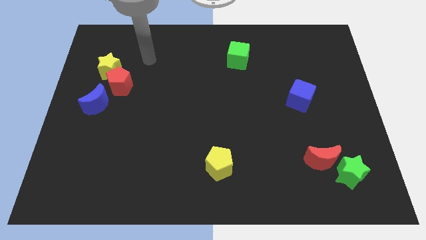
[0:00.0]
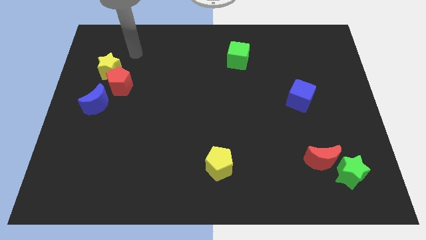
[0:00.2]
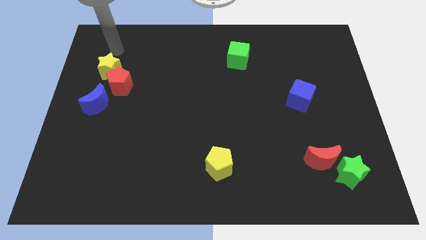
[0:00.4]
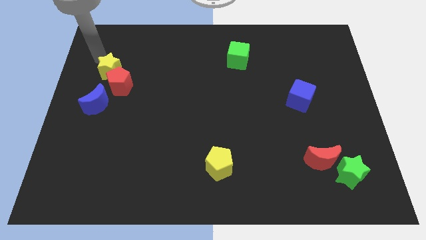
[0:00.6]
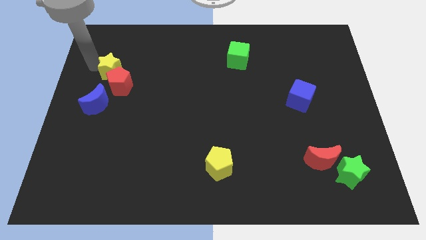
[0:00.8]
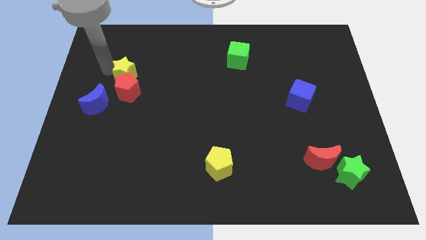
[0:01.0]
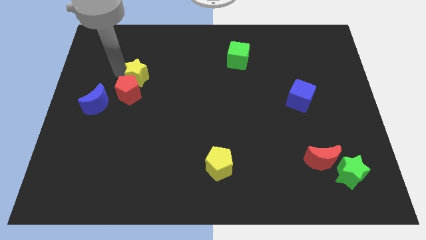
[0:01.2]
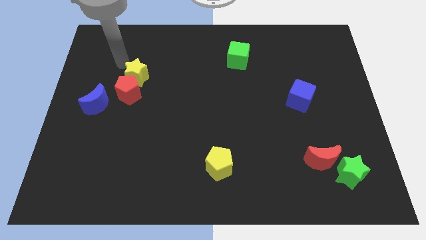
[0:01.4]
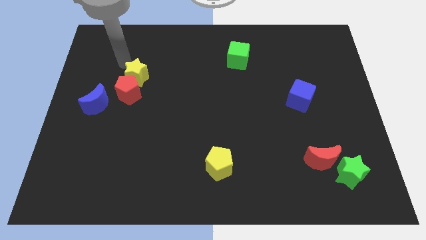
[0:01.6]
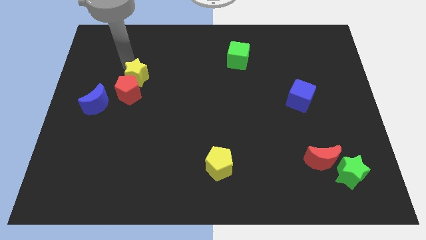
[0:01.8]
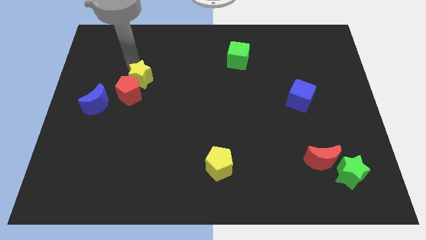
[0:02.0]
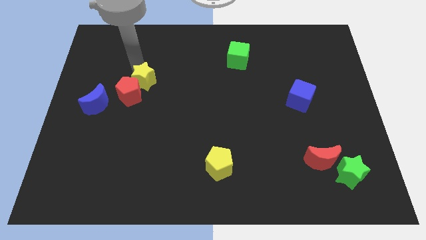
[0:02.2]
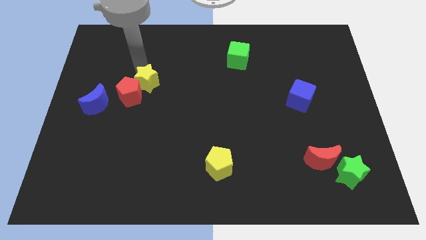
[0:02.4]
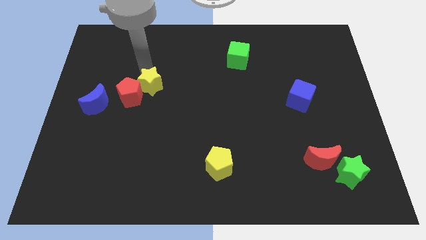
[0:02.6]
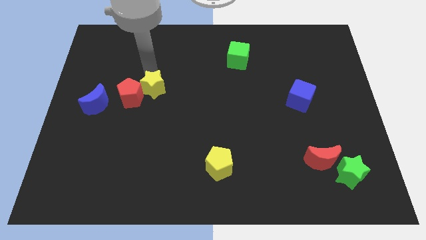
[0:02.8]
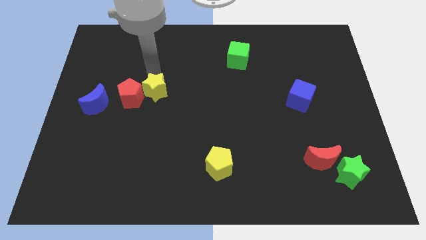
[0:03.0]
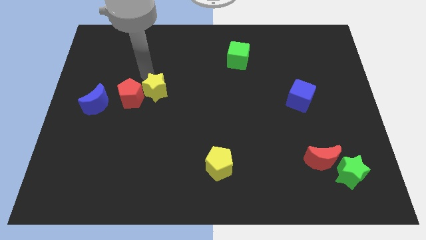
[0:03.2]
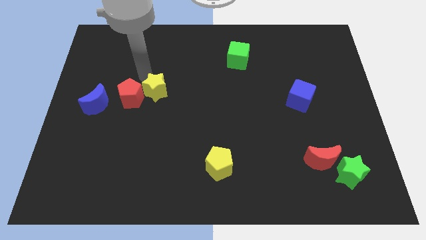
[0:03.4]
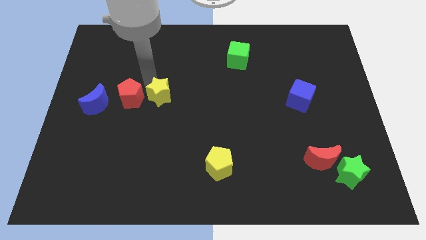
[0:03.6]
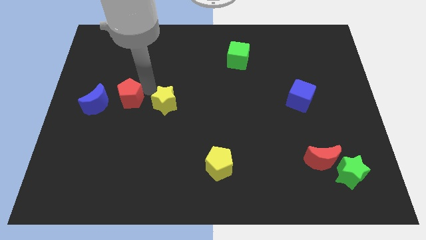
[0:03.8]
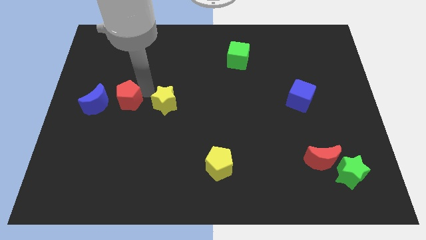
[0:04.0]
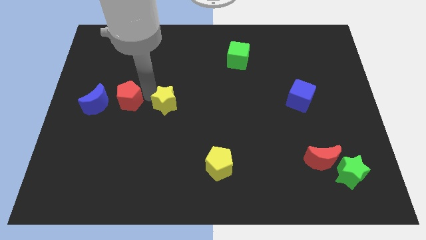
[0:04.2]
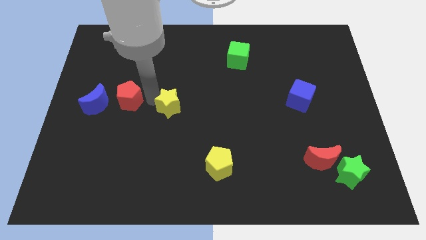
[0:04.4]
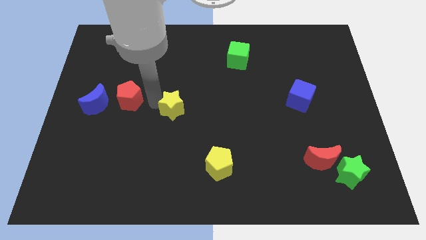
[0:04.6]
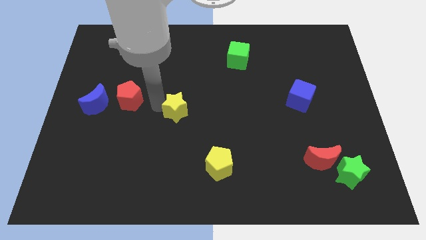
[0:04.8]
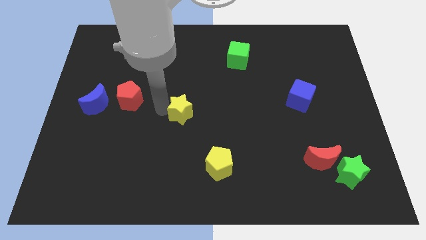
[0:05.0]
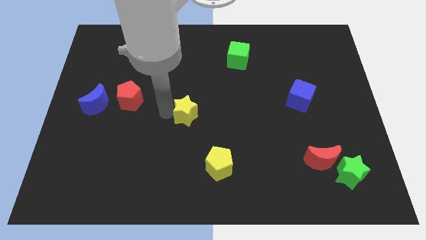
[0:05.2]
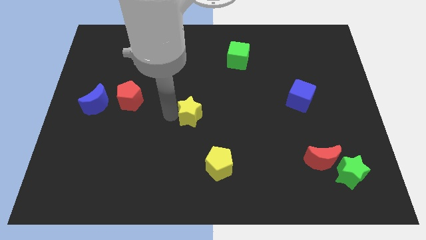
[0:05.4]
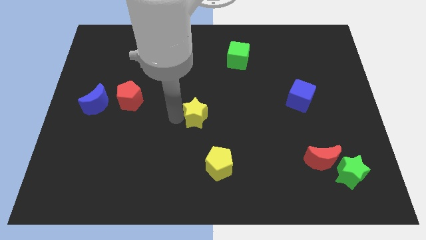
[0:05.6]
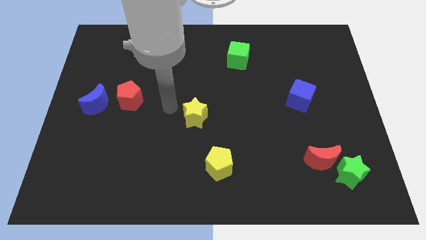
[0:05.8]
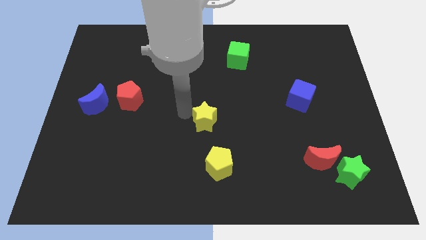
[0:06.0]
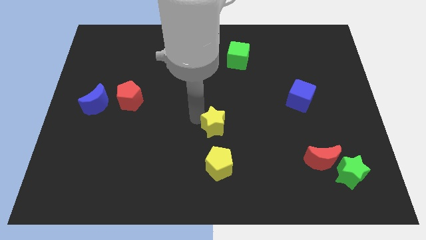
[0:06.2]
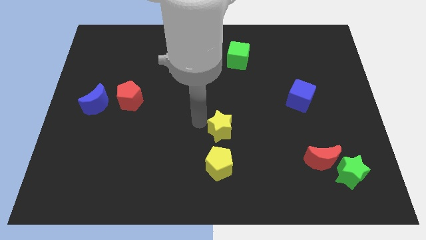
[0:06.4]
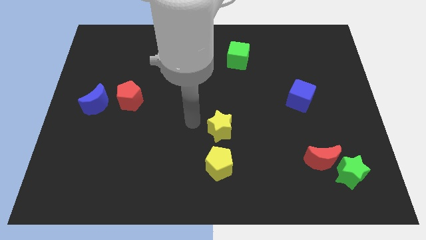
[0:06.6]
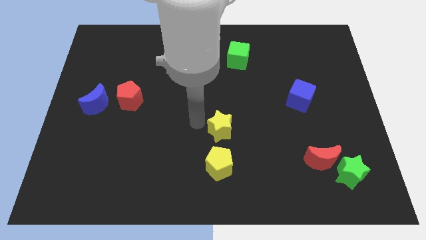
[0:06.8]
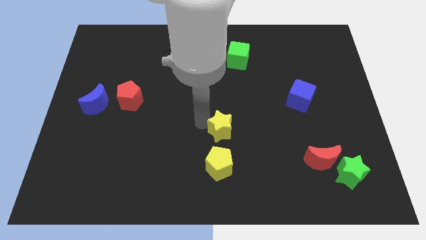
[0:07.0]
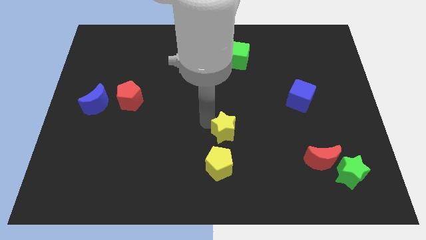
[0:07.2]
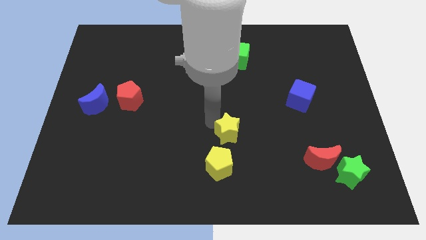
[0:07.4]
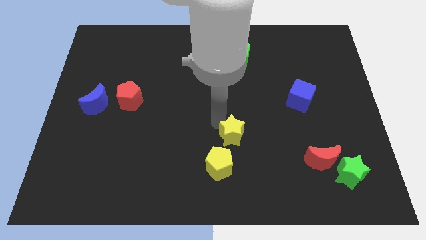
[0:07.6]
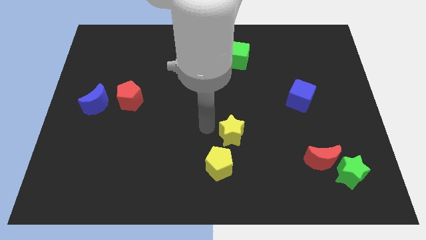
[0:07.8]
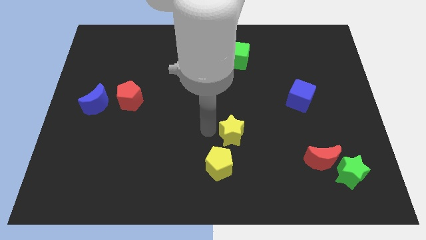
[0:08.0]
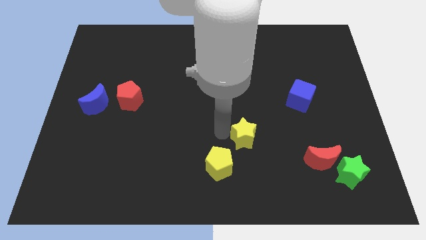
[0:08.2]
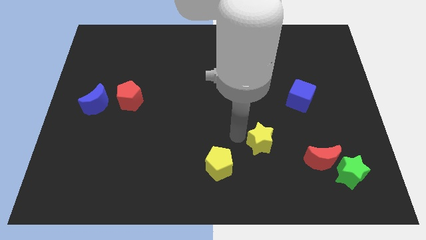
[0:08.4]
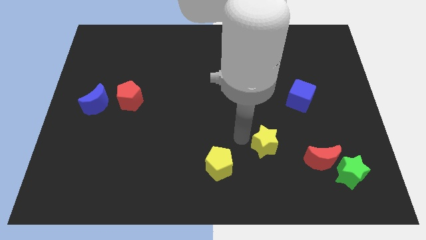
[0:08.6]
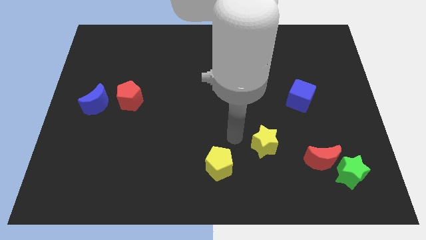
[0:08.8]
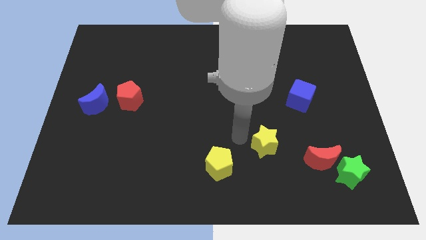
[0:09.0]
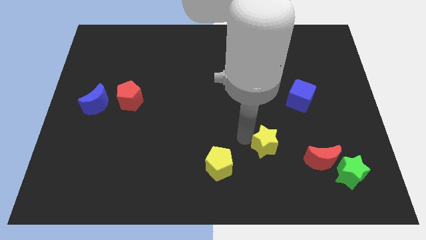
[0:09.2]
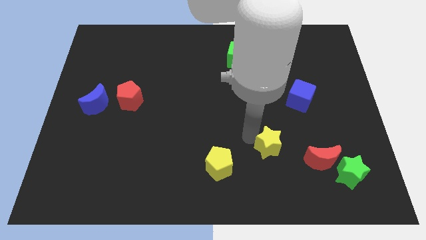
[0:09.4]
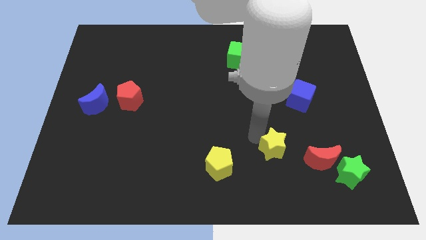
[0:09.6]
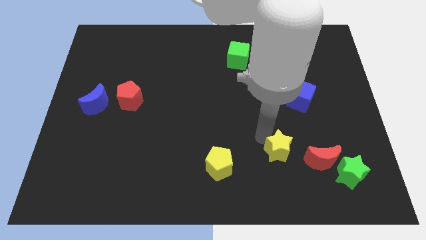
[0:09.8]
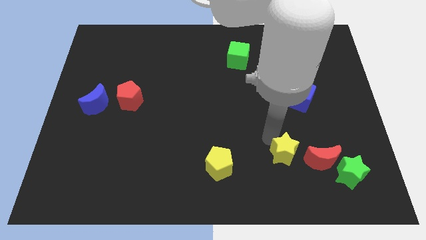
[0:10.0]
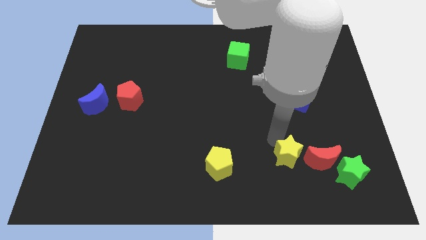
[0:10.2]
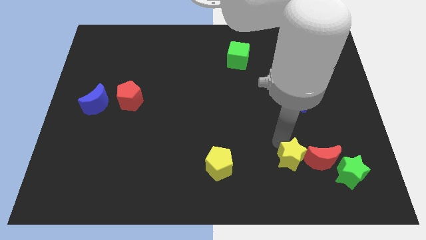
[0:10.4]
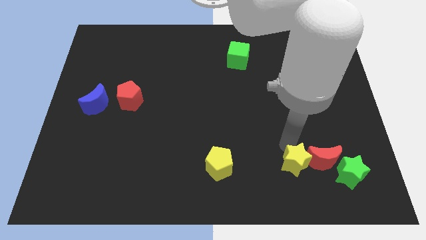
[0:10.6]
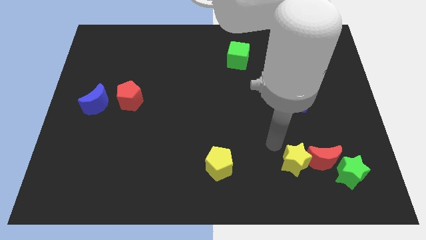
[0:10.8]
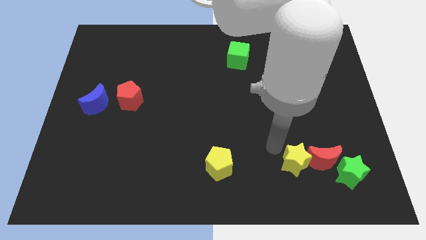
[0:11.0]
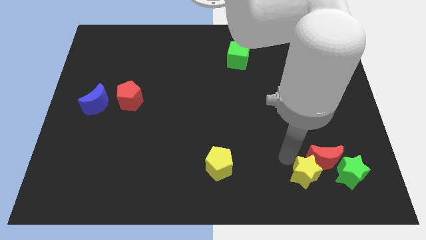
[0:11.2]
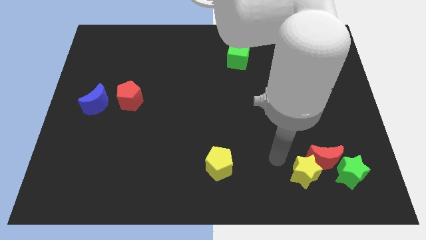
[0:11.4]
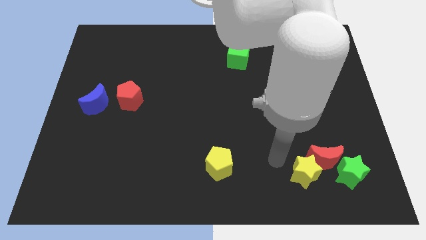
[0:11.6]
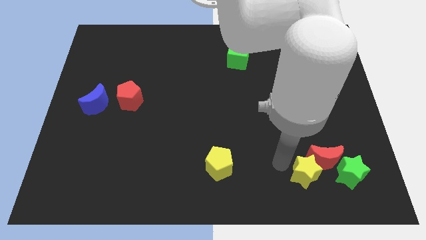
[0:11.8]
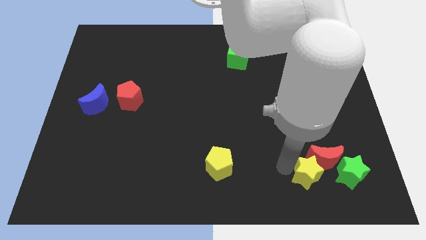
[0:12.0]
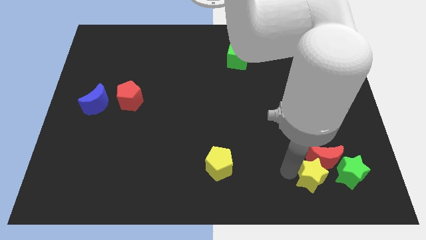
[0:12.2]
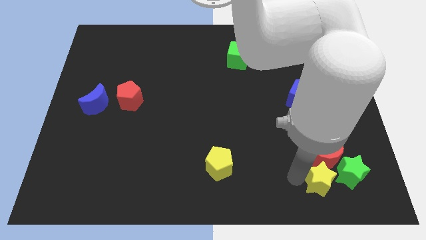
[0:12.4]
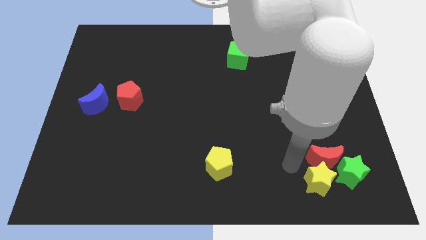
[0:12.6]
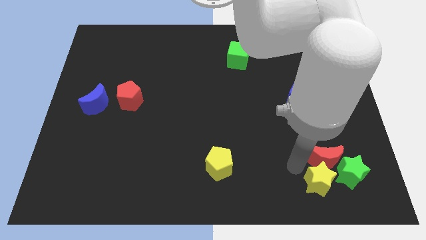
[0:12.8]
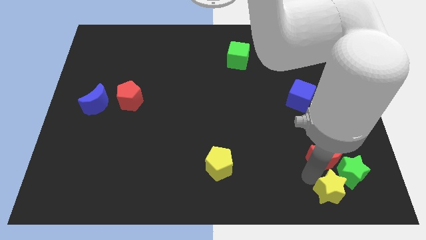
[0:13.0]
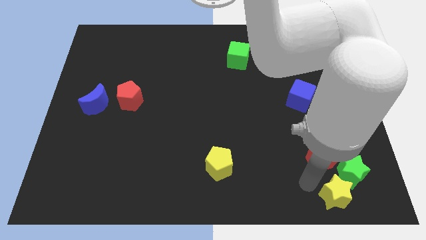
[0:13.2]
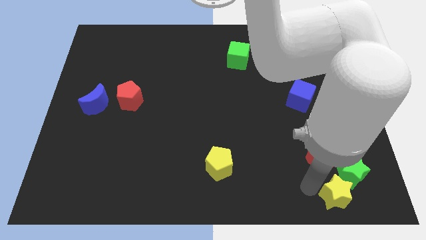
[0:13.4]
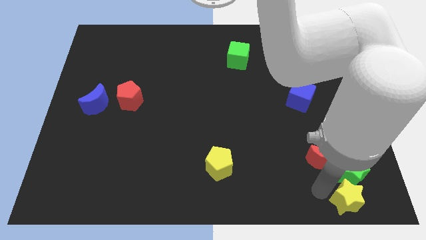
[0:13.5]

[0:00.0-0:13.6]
put the yellow star to the bottom right

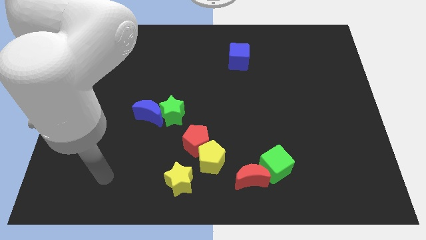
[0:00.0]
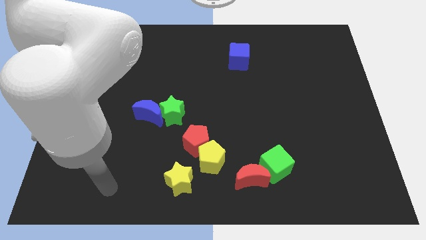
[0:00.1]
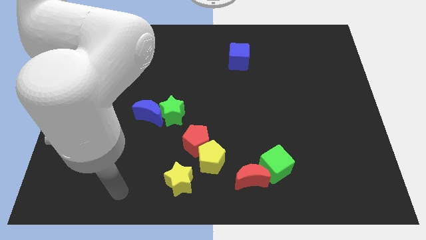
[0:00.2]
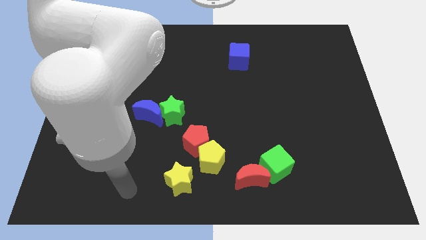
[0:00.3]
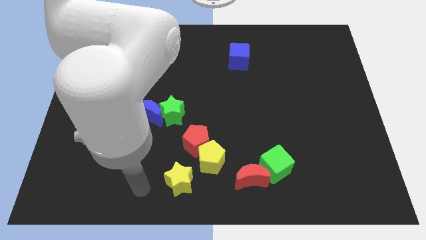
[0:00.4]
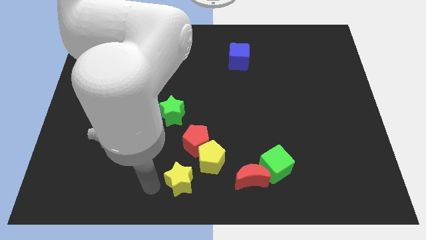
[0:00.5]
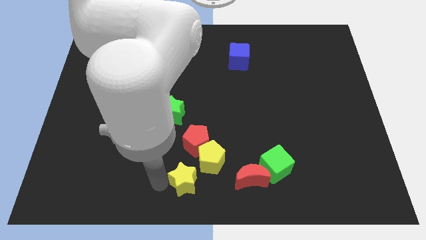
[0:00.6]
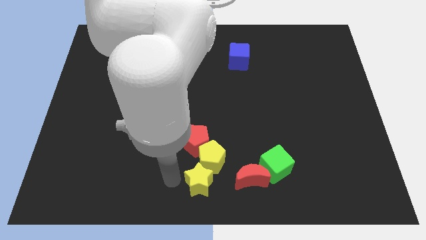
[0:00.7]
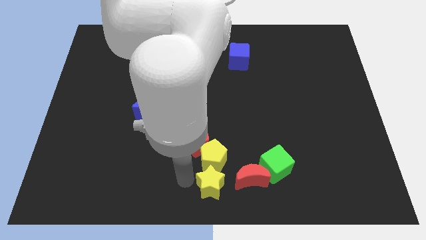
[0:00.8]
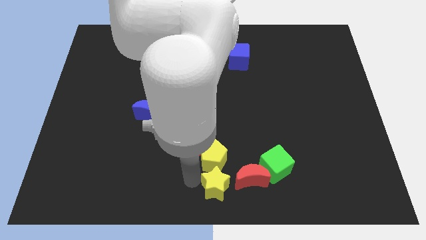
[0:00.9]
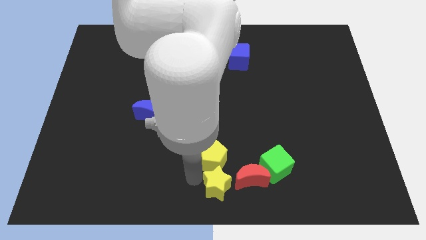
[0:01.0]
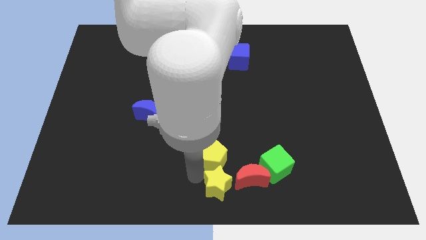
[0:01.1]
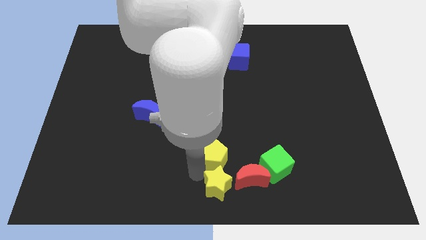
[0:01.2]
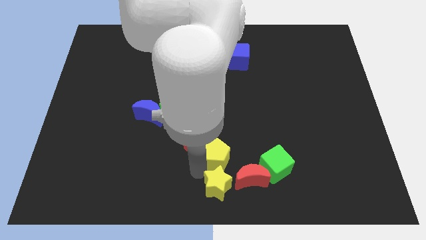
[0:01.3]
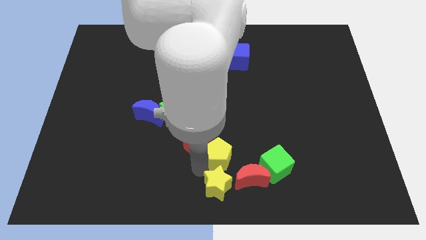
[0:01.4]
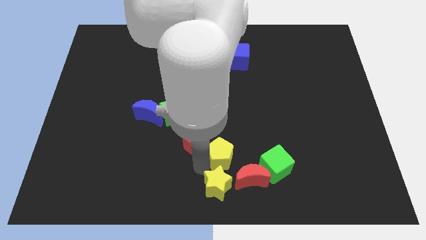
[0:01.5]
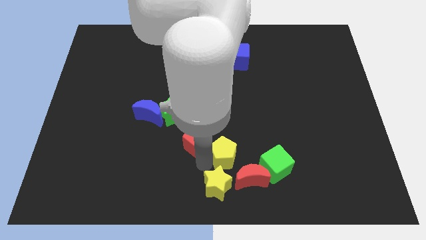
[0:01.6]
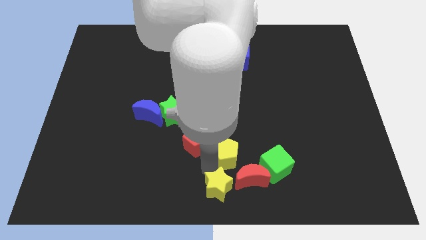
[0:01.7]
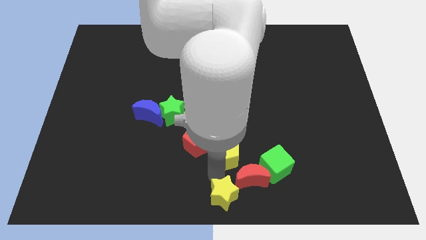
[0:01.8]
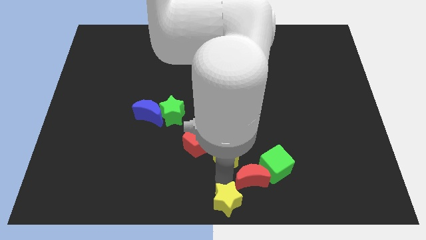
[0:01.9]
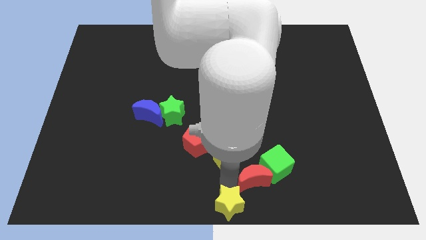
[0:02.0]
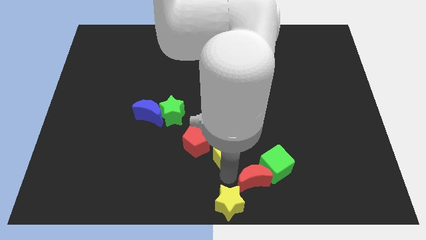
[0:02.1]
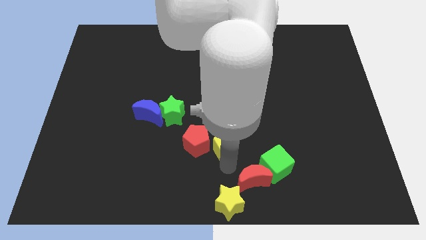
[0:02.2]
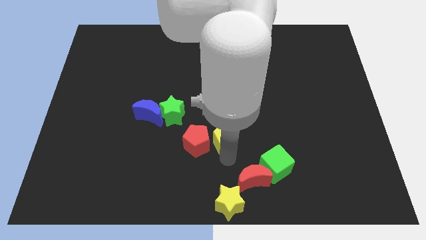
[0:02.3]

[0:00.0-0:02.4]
slide the yellow pentagon to the middle
